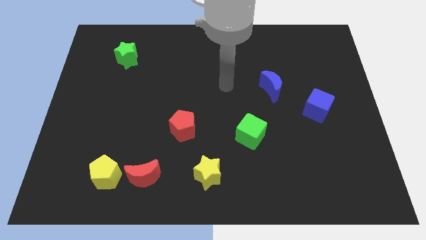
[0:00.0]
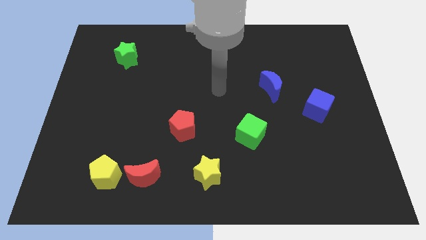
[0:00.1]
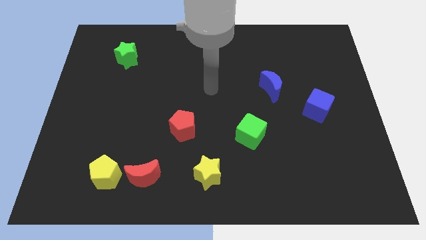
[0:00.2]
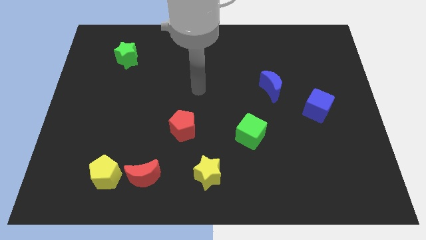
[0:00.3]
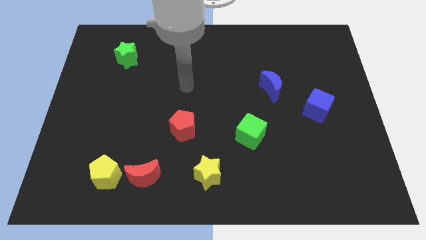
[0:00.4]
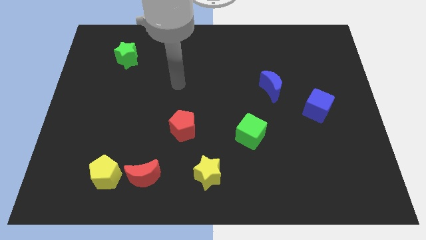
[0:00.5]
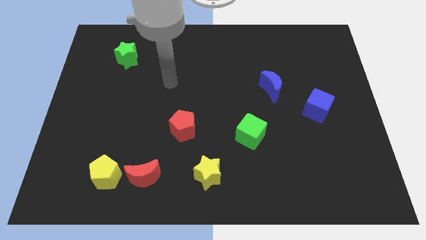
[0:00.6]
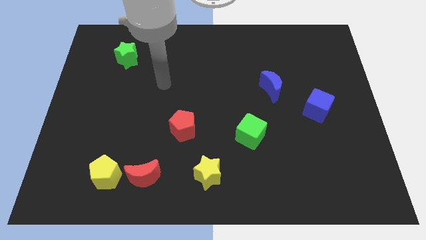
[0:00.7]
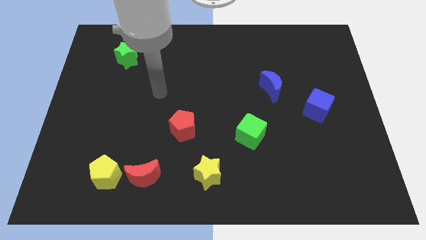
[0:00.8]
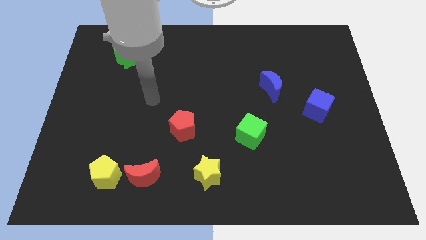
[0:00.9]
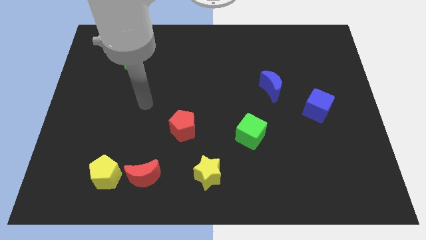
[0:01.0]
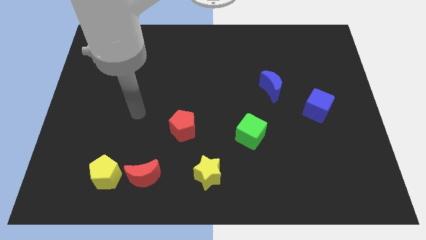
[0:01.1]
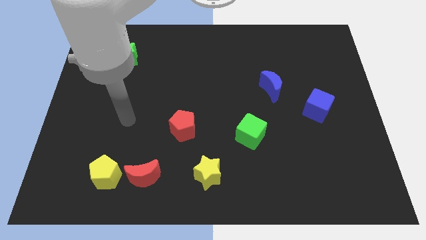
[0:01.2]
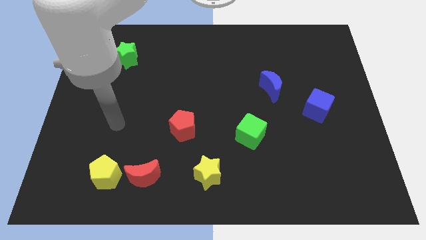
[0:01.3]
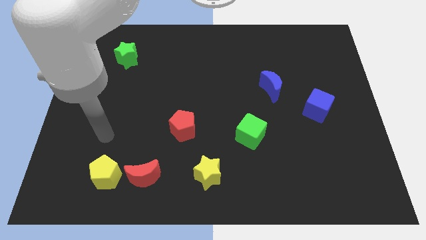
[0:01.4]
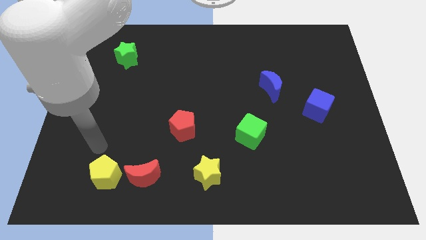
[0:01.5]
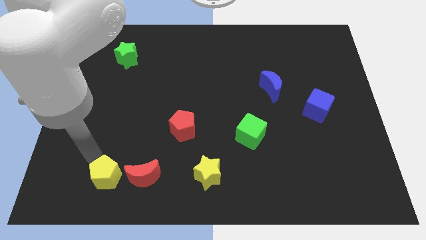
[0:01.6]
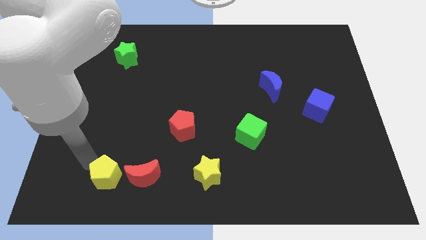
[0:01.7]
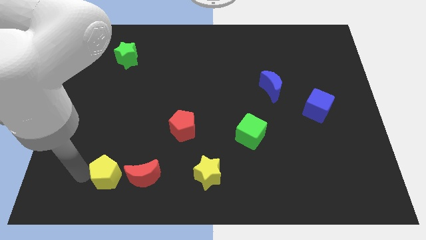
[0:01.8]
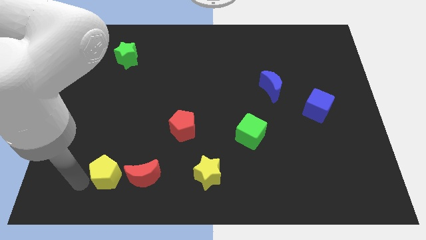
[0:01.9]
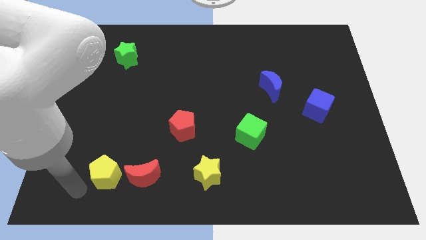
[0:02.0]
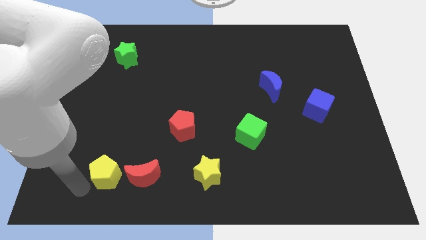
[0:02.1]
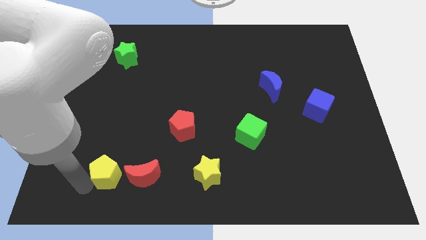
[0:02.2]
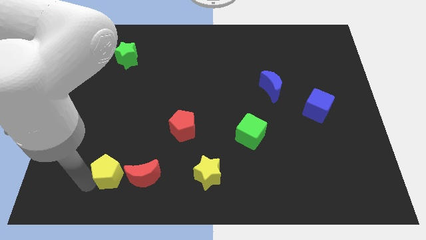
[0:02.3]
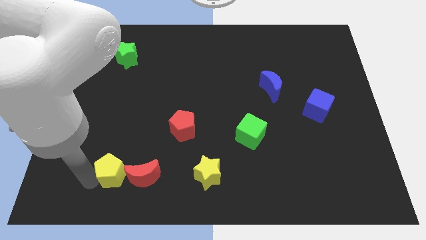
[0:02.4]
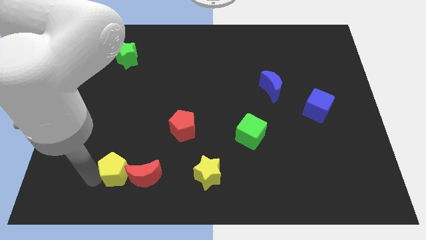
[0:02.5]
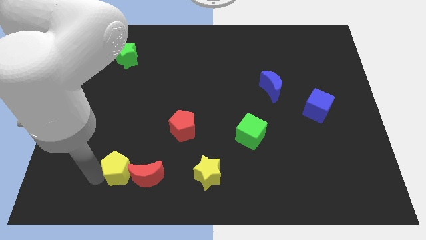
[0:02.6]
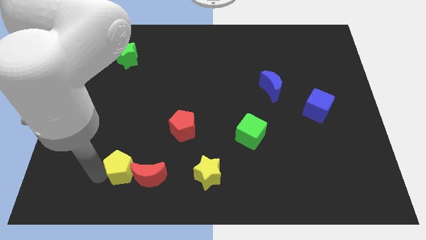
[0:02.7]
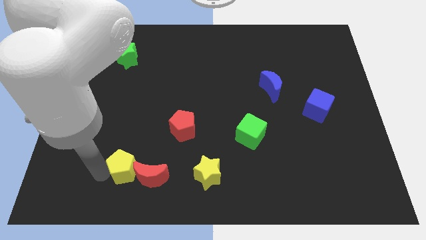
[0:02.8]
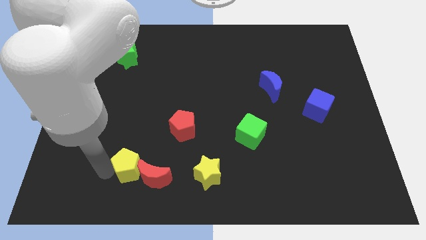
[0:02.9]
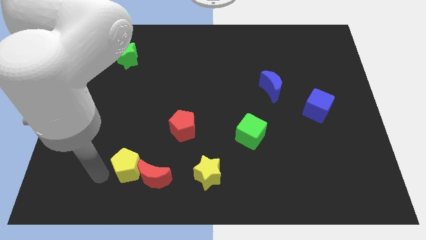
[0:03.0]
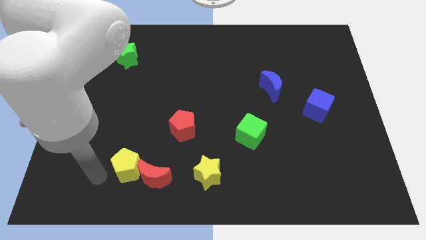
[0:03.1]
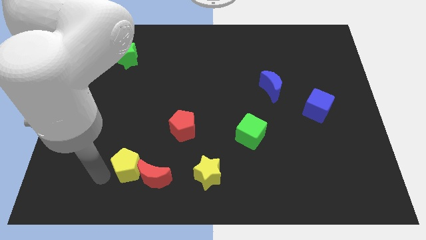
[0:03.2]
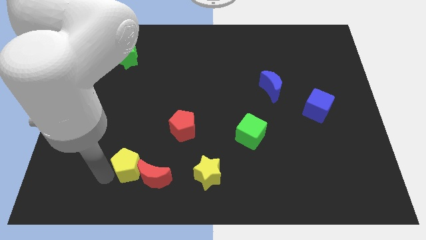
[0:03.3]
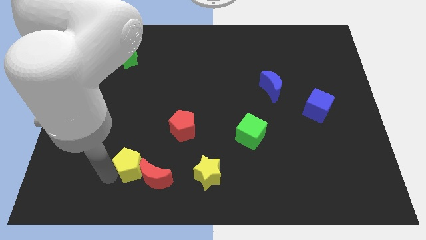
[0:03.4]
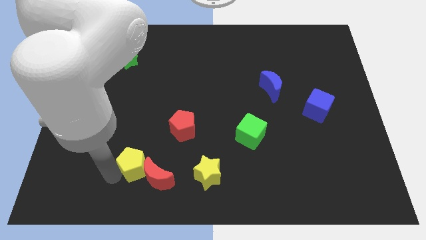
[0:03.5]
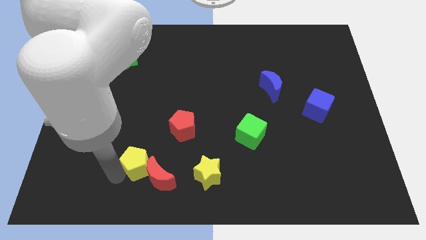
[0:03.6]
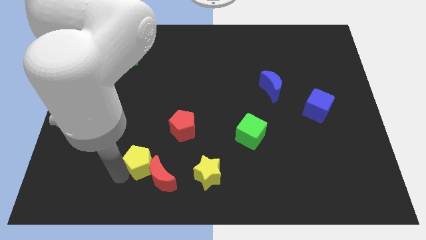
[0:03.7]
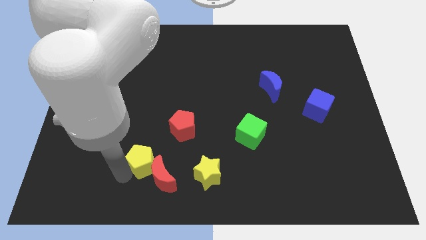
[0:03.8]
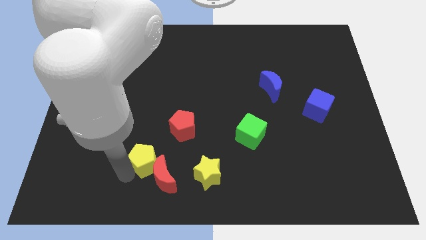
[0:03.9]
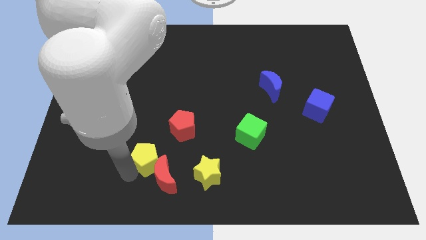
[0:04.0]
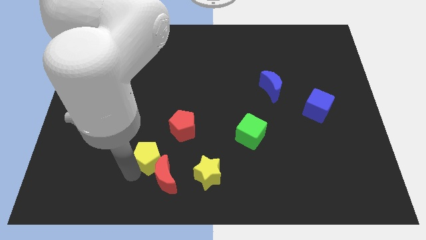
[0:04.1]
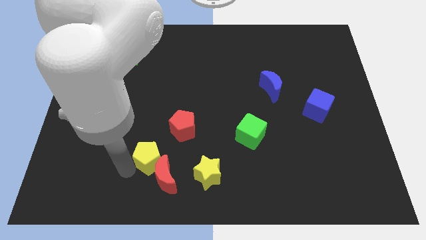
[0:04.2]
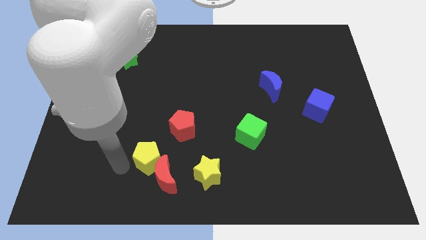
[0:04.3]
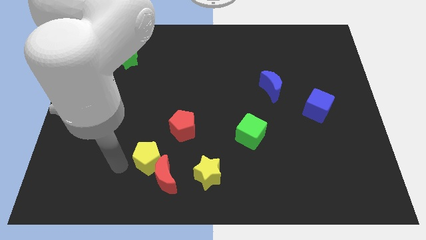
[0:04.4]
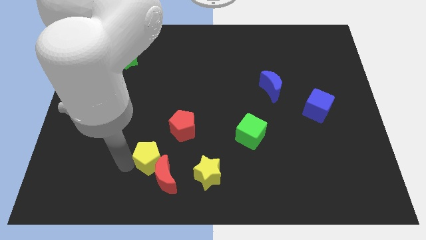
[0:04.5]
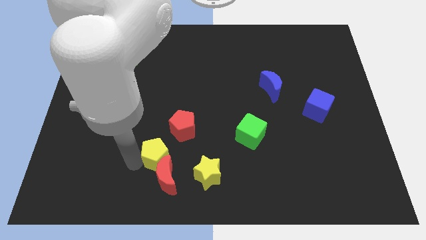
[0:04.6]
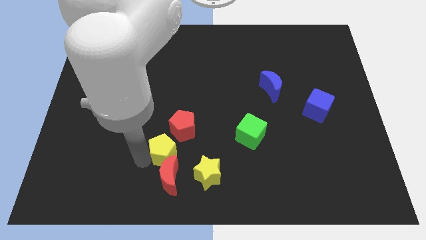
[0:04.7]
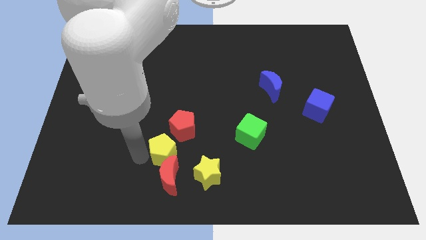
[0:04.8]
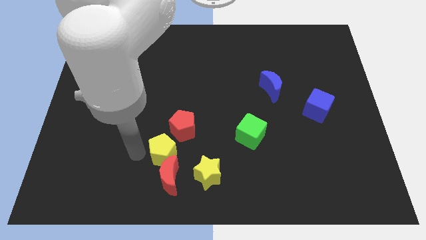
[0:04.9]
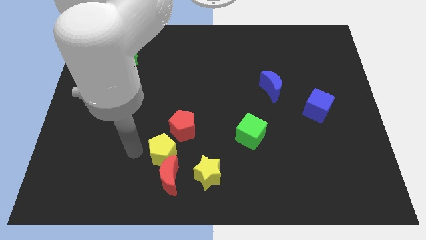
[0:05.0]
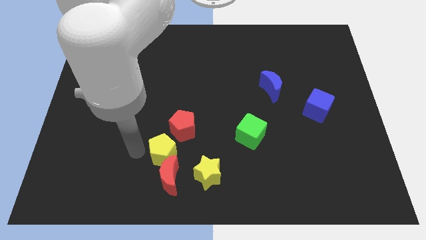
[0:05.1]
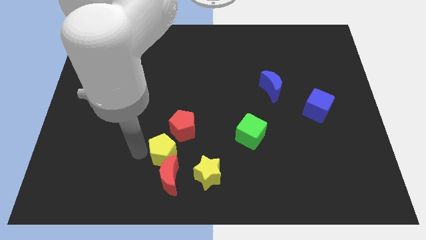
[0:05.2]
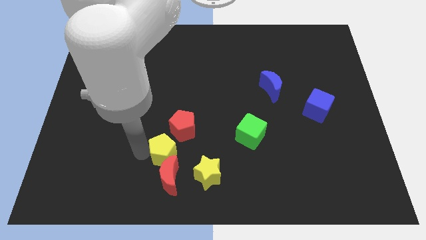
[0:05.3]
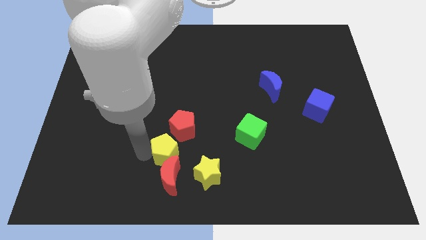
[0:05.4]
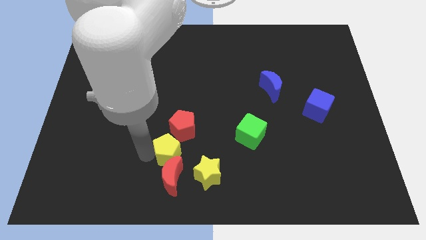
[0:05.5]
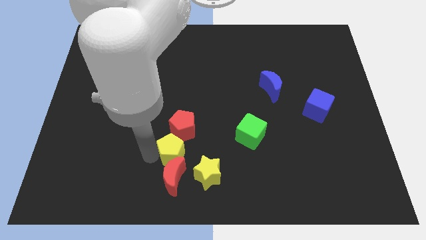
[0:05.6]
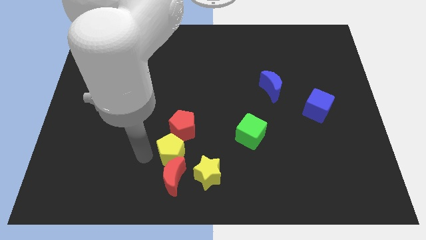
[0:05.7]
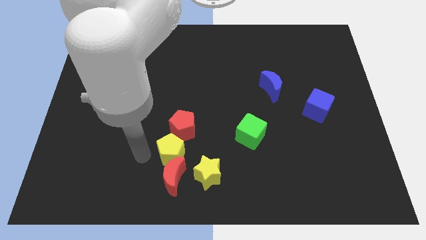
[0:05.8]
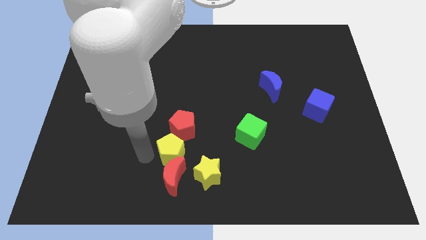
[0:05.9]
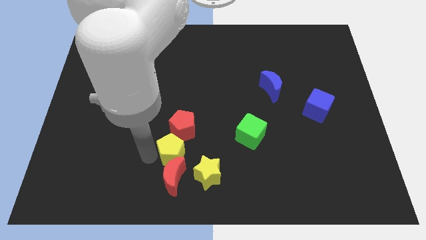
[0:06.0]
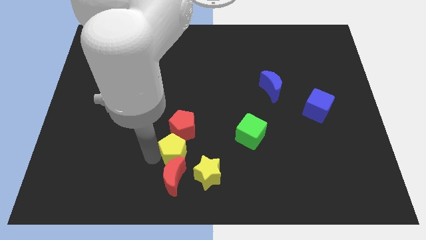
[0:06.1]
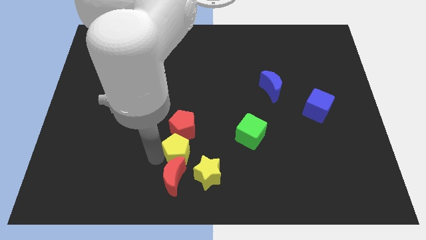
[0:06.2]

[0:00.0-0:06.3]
move the yellow pentagon to the bottom right of the red pentagon

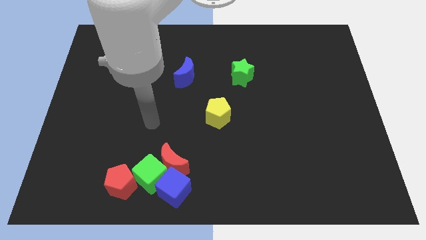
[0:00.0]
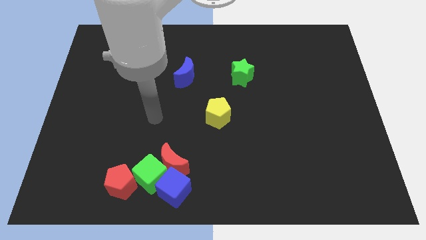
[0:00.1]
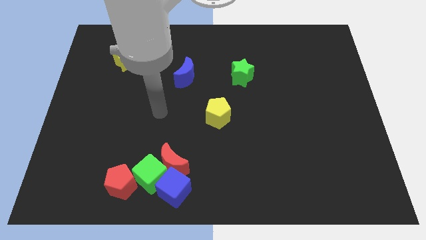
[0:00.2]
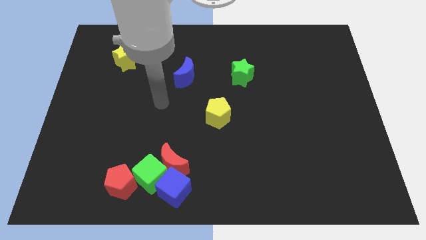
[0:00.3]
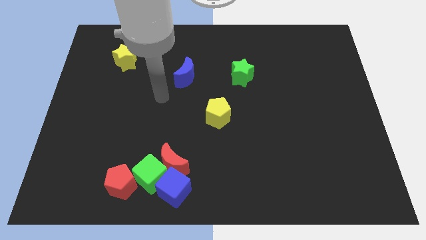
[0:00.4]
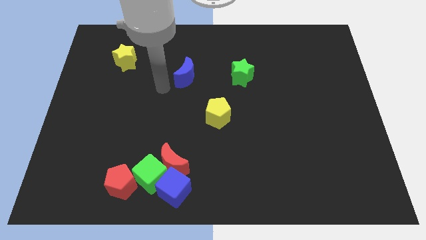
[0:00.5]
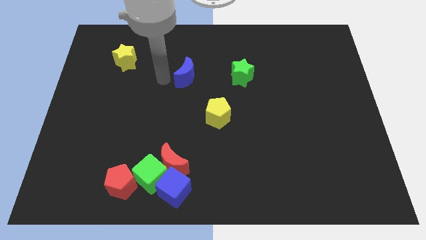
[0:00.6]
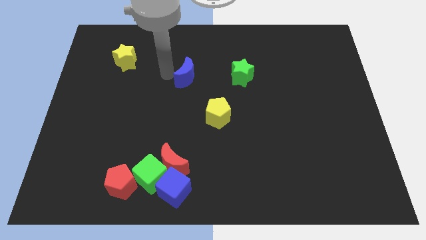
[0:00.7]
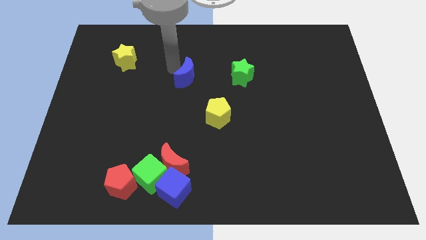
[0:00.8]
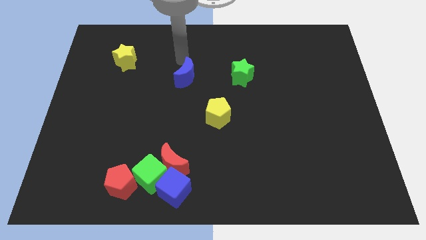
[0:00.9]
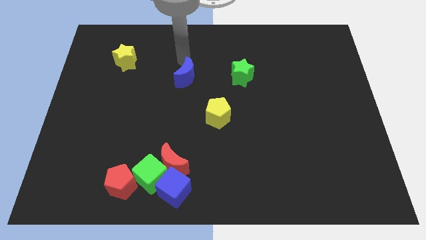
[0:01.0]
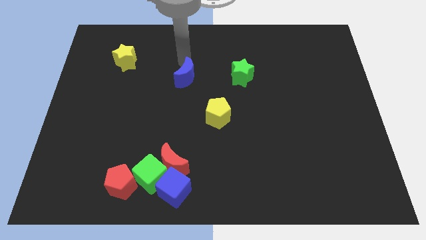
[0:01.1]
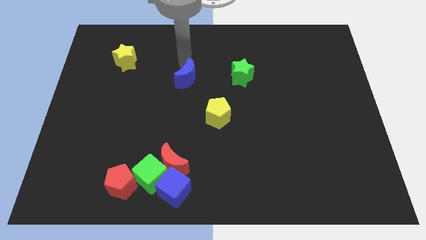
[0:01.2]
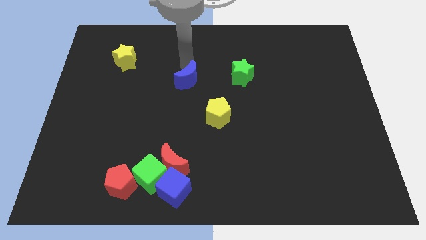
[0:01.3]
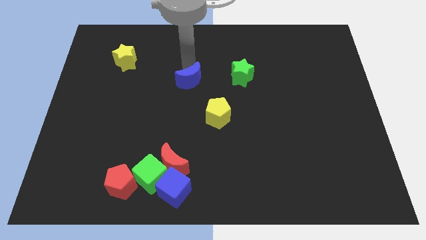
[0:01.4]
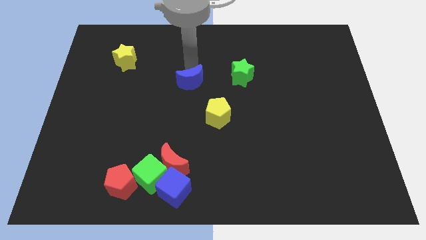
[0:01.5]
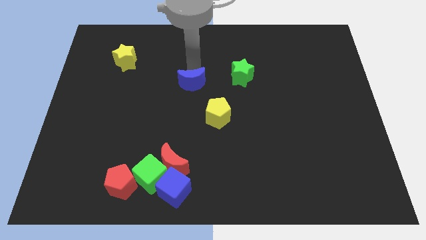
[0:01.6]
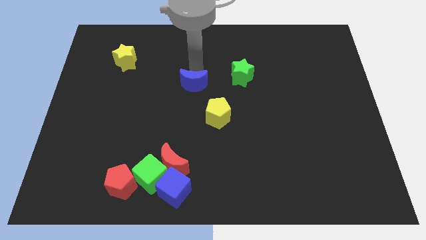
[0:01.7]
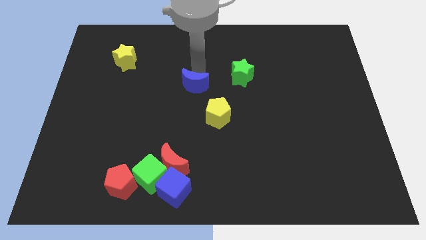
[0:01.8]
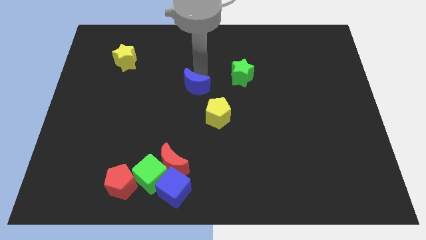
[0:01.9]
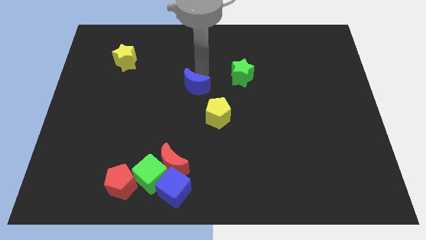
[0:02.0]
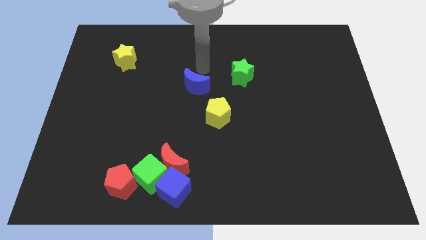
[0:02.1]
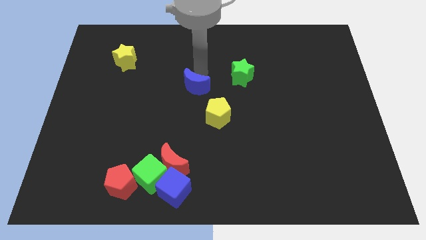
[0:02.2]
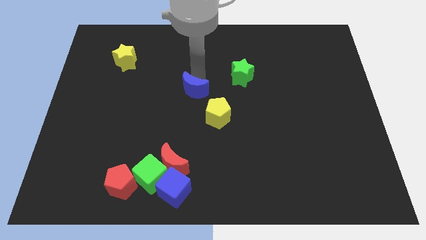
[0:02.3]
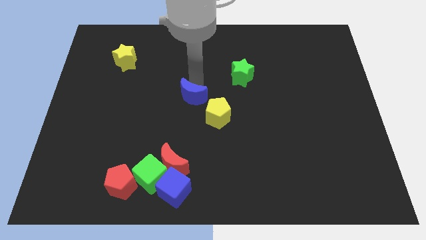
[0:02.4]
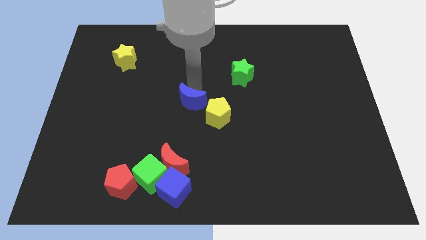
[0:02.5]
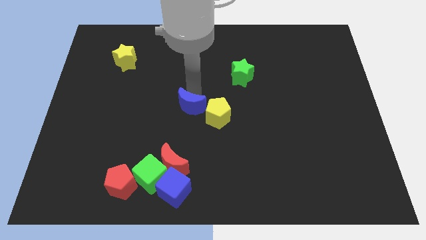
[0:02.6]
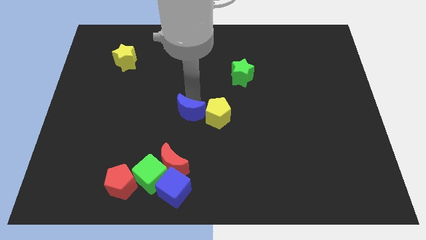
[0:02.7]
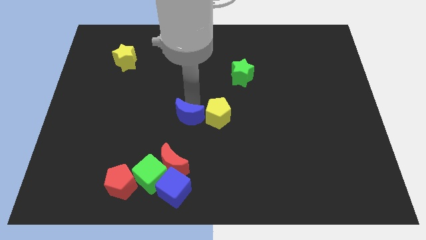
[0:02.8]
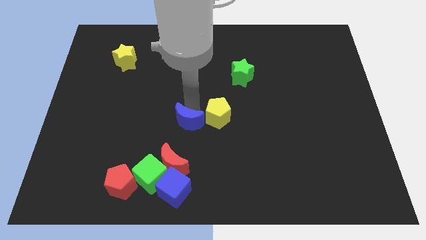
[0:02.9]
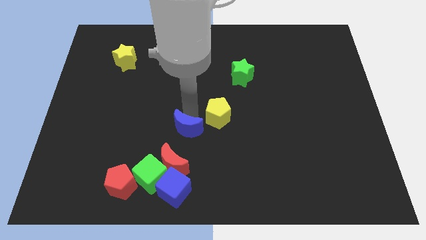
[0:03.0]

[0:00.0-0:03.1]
slide the blue moon above the blue cube
